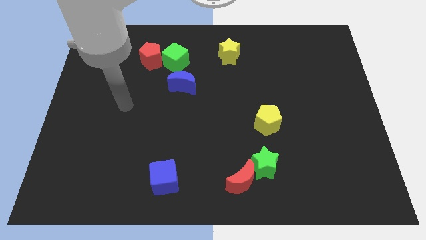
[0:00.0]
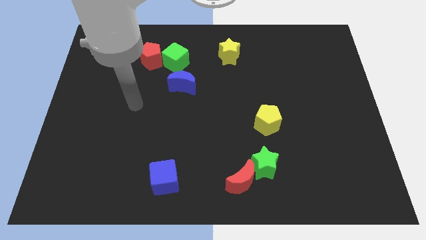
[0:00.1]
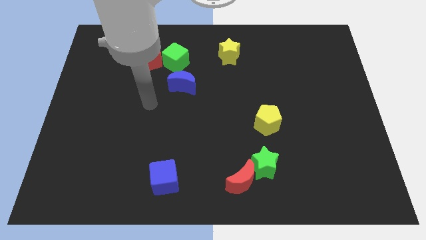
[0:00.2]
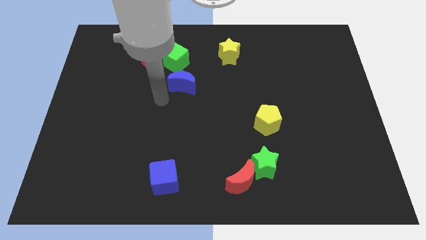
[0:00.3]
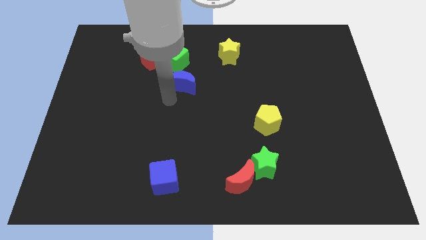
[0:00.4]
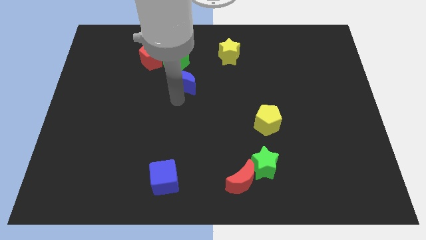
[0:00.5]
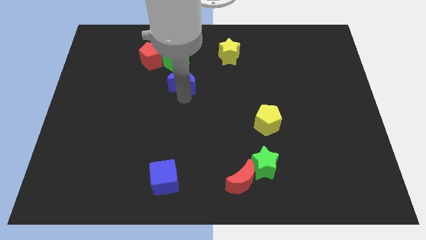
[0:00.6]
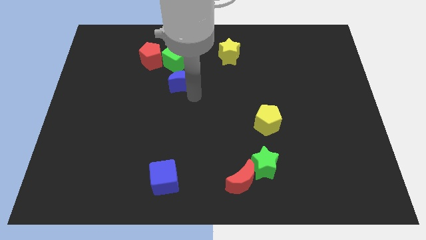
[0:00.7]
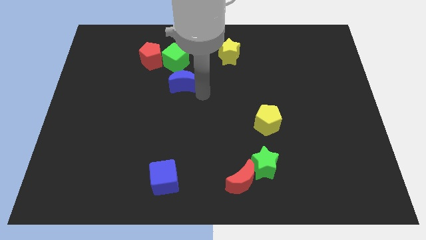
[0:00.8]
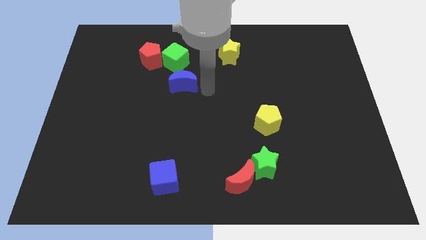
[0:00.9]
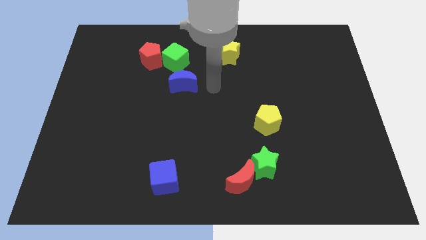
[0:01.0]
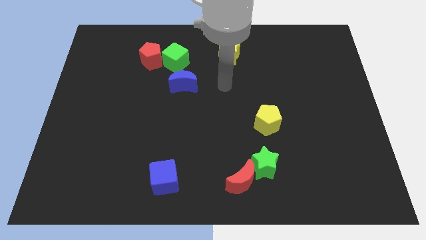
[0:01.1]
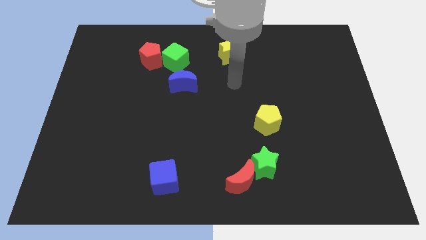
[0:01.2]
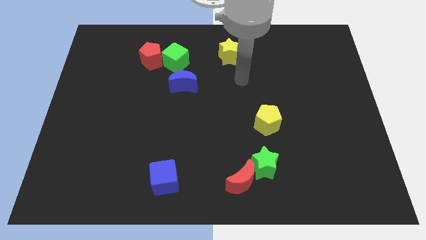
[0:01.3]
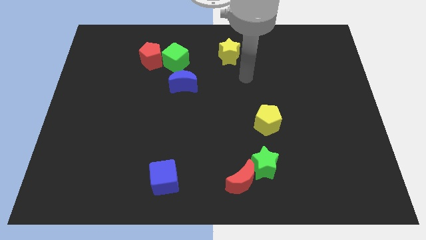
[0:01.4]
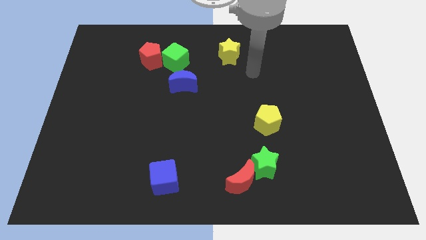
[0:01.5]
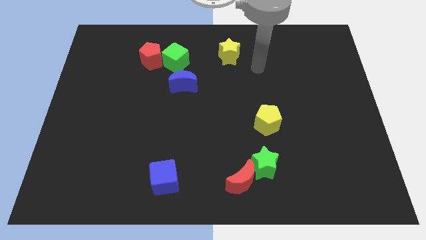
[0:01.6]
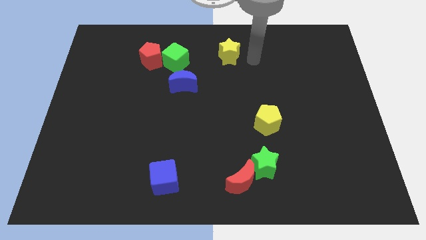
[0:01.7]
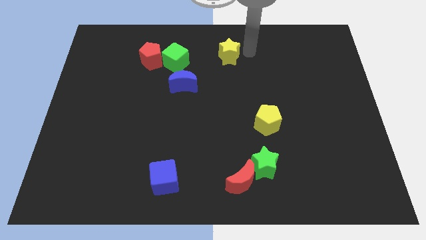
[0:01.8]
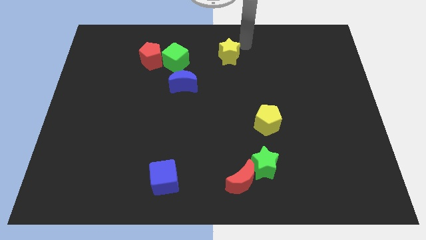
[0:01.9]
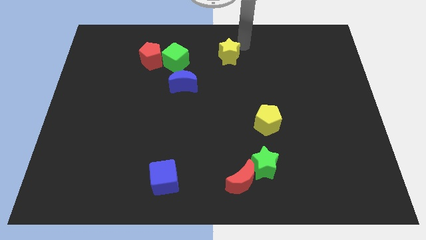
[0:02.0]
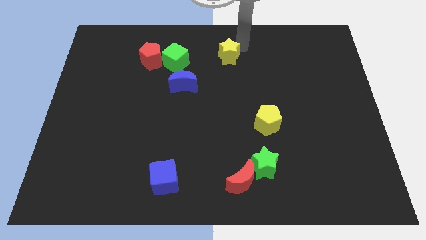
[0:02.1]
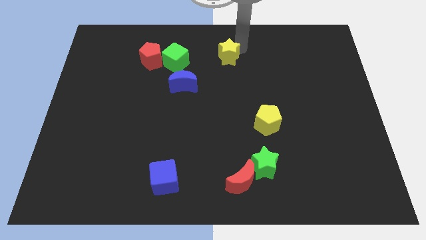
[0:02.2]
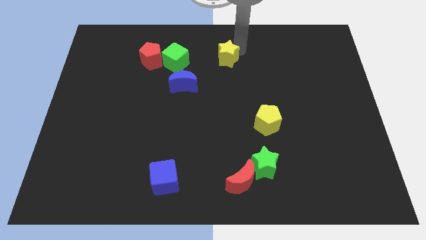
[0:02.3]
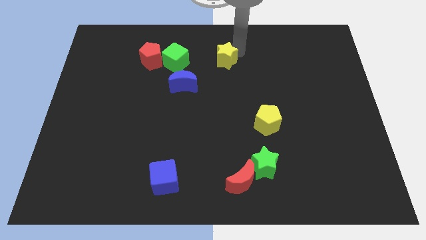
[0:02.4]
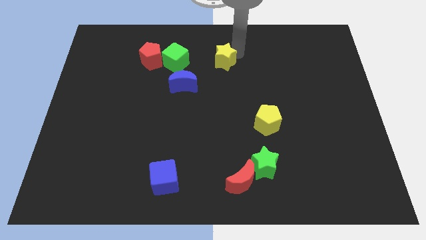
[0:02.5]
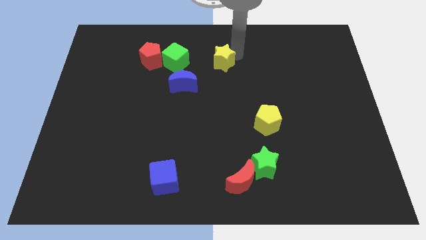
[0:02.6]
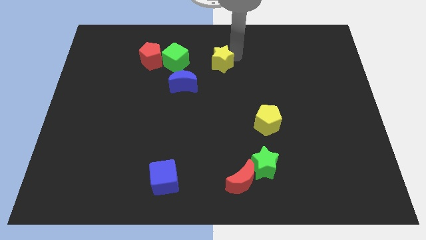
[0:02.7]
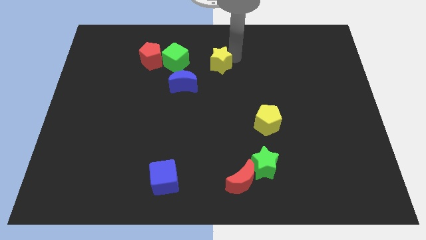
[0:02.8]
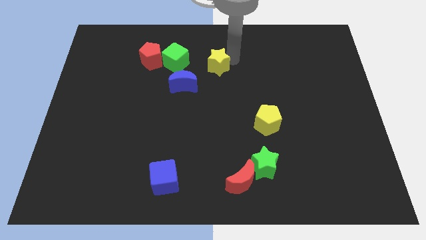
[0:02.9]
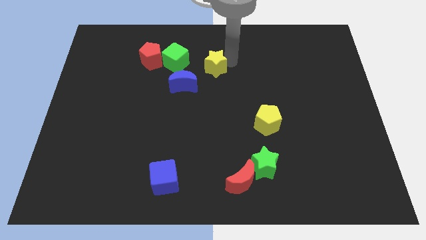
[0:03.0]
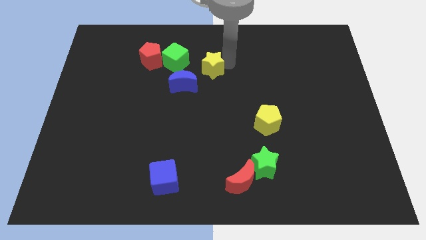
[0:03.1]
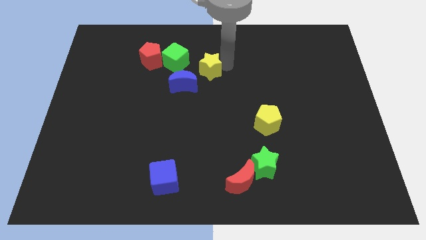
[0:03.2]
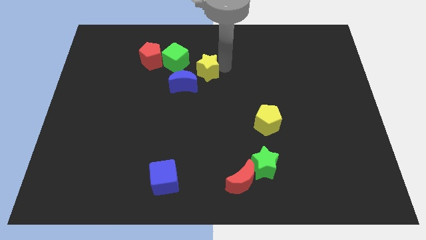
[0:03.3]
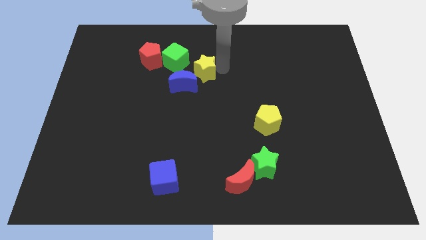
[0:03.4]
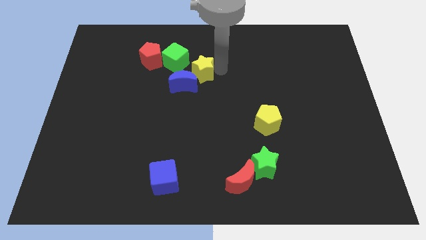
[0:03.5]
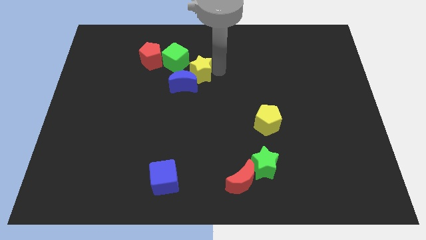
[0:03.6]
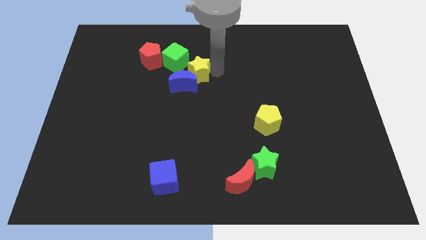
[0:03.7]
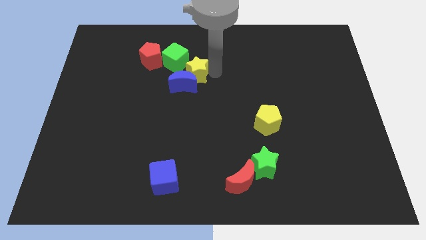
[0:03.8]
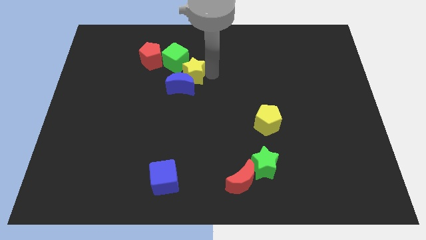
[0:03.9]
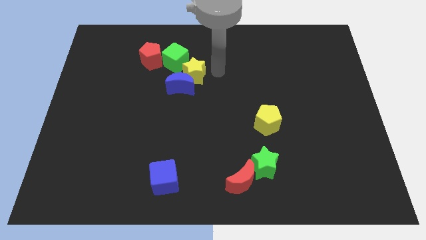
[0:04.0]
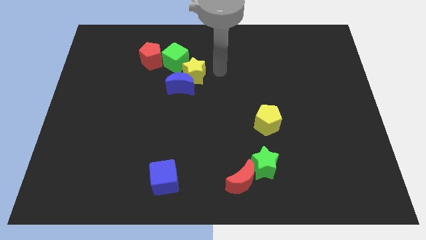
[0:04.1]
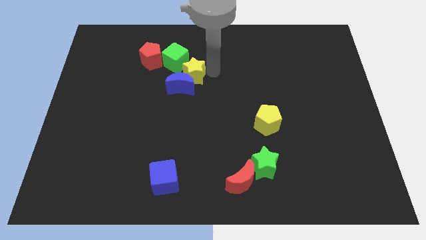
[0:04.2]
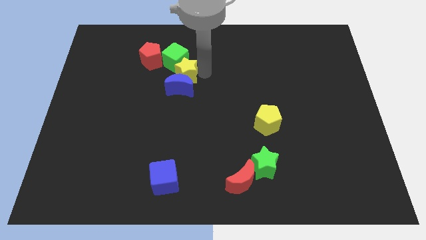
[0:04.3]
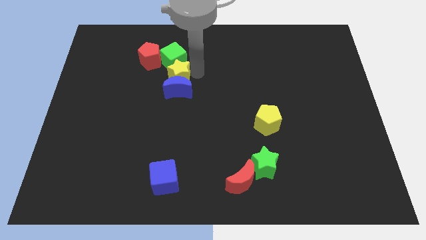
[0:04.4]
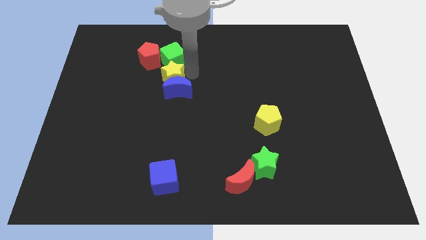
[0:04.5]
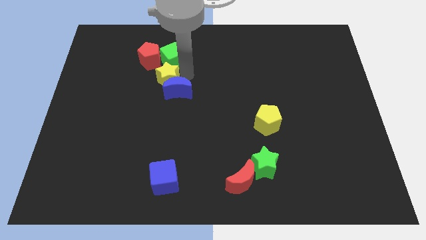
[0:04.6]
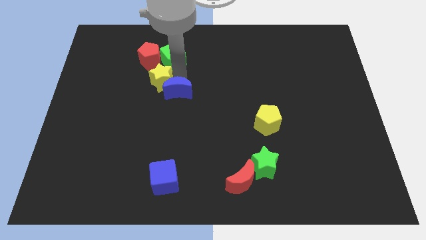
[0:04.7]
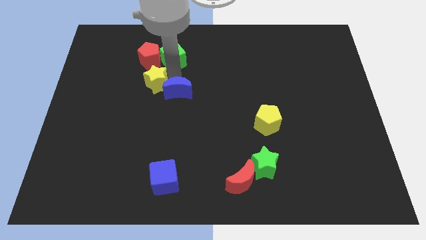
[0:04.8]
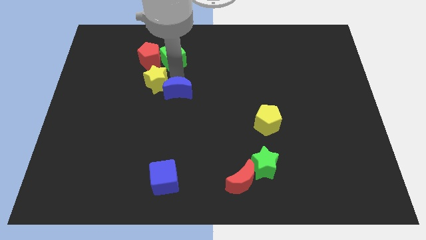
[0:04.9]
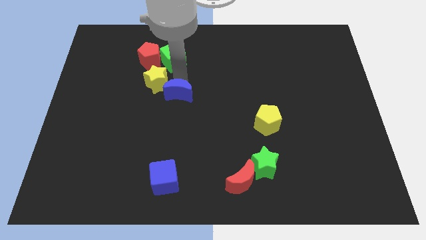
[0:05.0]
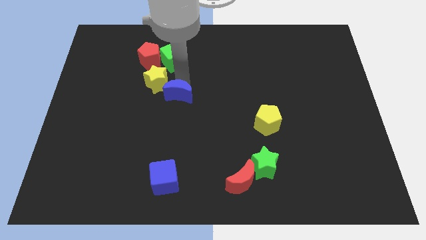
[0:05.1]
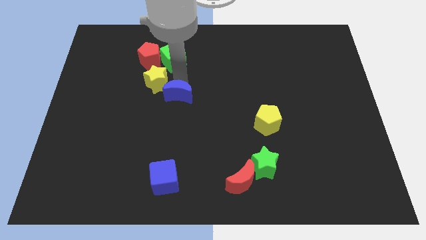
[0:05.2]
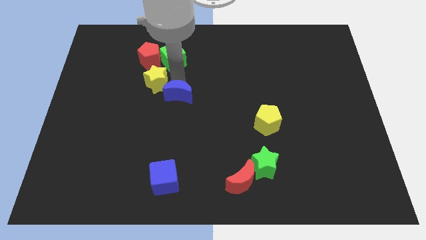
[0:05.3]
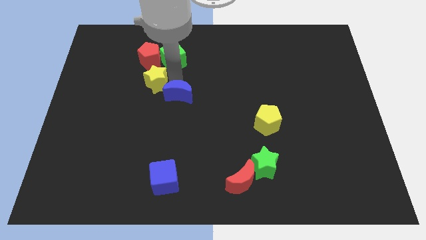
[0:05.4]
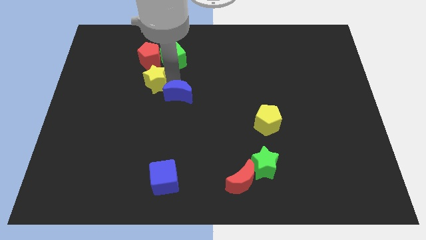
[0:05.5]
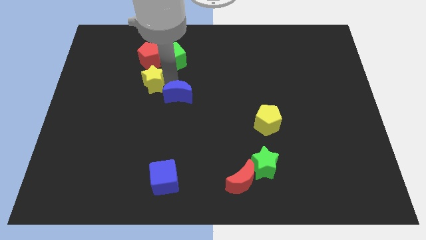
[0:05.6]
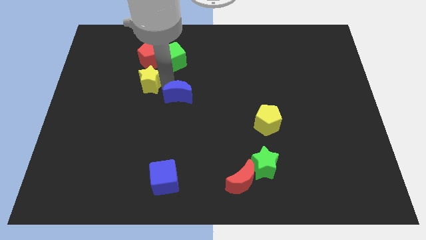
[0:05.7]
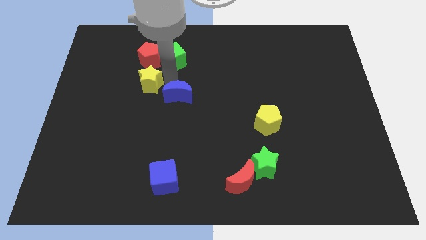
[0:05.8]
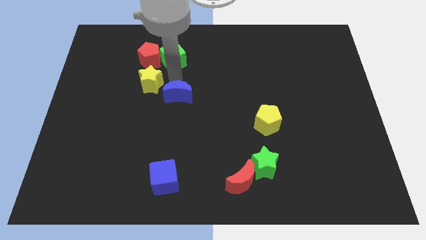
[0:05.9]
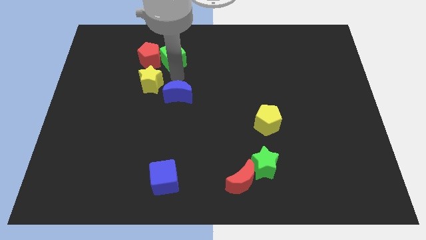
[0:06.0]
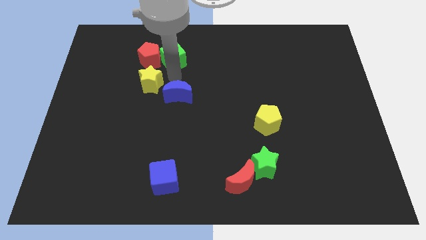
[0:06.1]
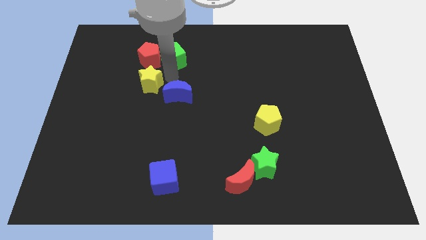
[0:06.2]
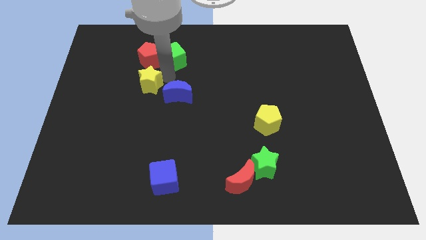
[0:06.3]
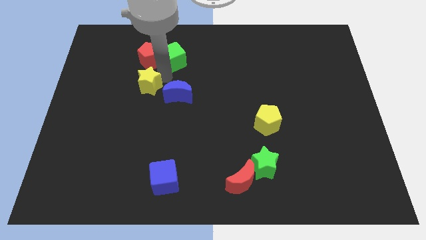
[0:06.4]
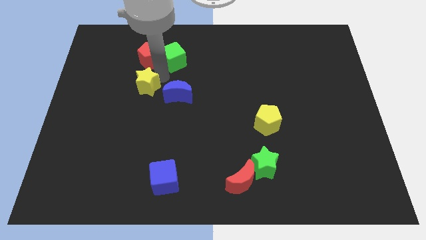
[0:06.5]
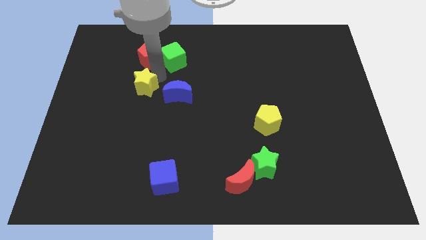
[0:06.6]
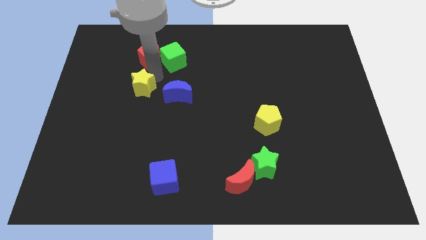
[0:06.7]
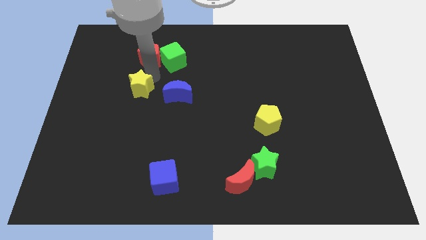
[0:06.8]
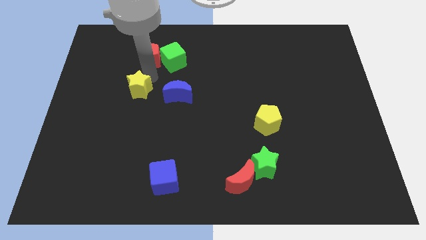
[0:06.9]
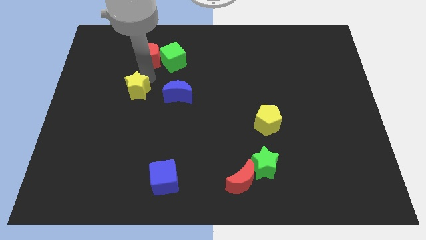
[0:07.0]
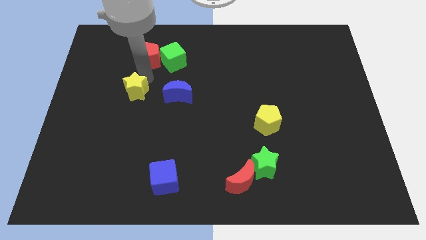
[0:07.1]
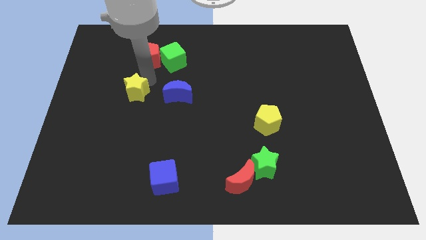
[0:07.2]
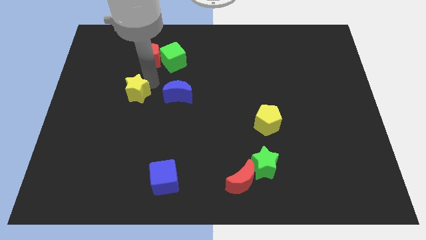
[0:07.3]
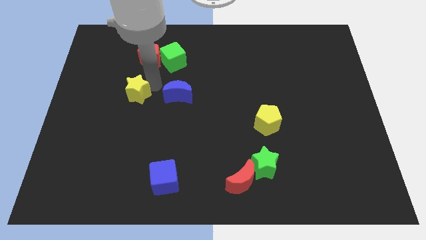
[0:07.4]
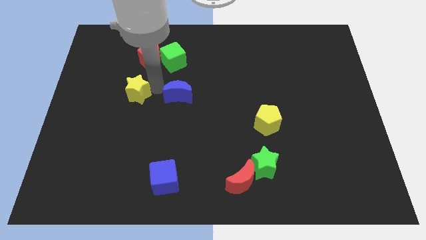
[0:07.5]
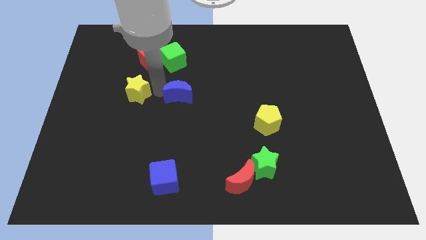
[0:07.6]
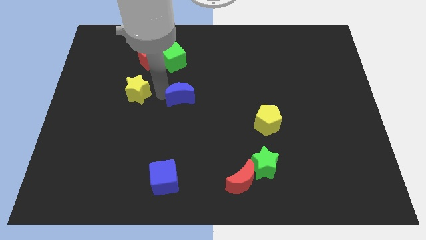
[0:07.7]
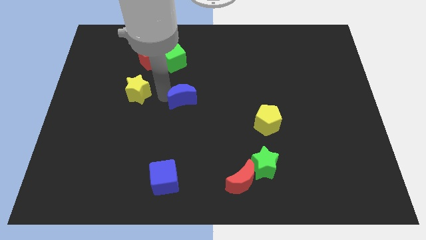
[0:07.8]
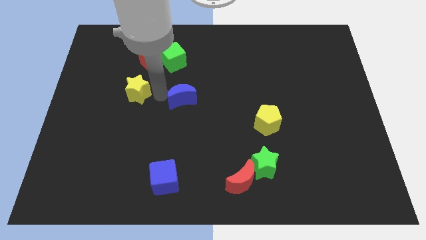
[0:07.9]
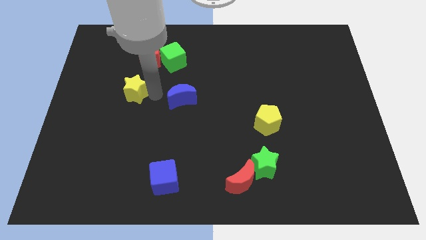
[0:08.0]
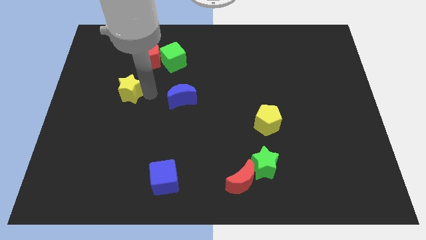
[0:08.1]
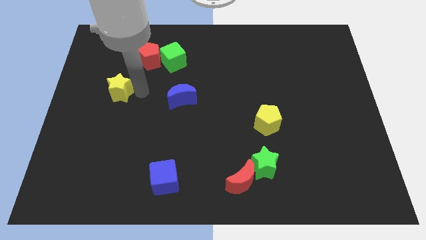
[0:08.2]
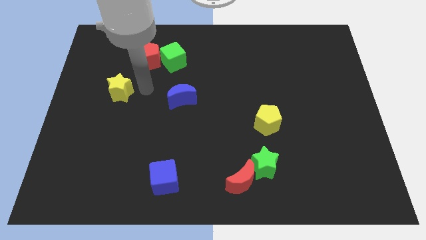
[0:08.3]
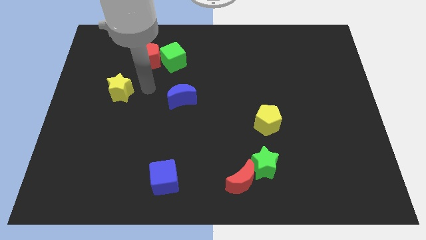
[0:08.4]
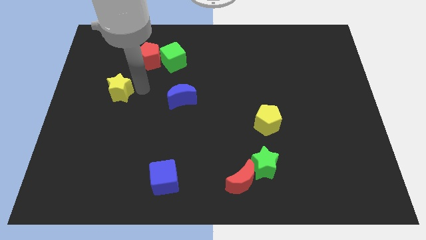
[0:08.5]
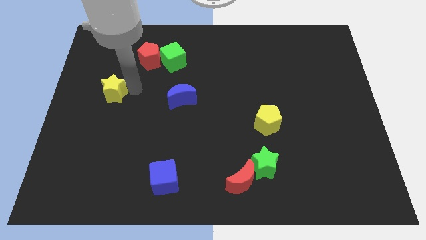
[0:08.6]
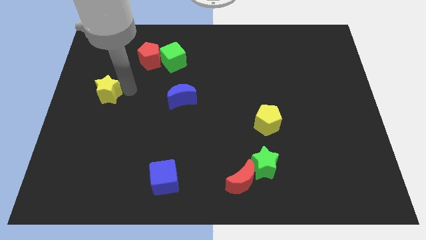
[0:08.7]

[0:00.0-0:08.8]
push the yellow star to the left side
